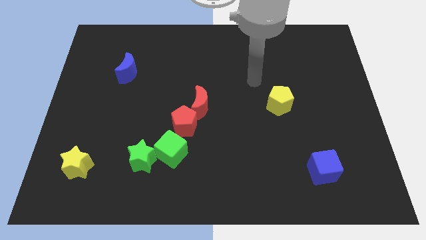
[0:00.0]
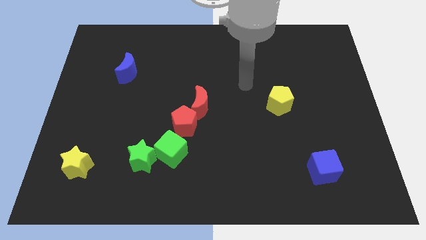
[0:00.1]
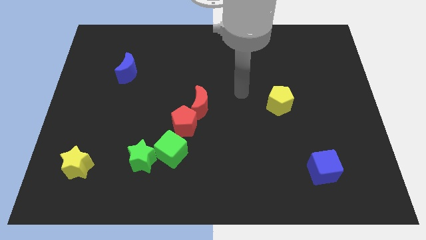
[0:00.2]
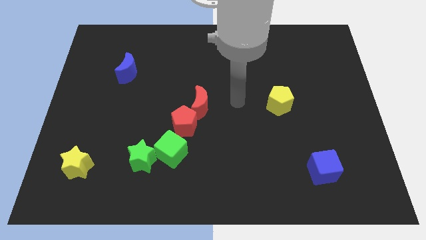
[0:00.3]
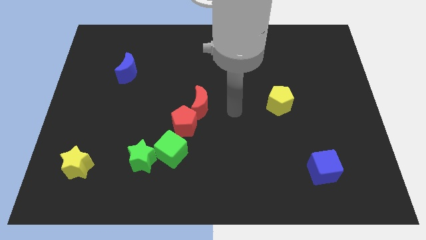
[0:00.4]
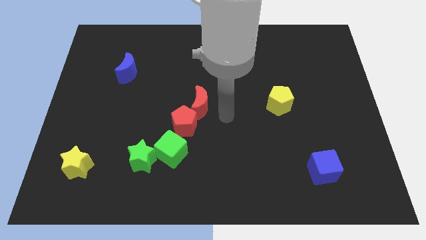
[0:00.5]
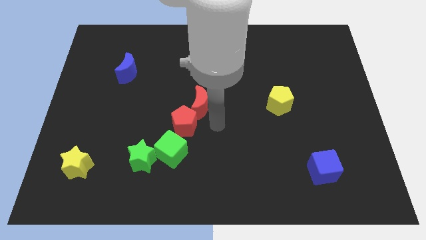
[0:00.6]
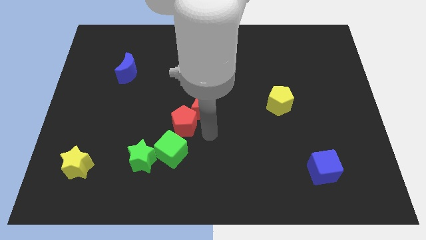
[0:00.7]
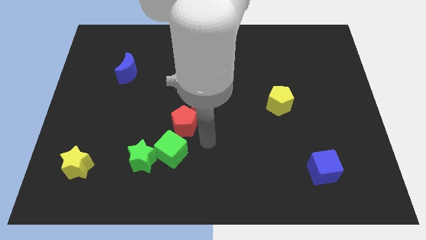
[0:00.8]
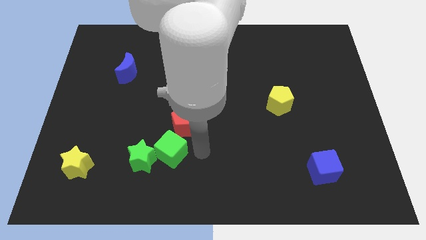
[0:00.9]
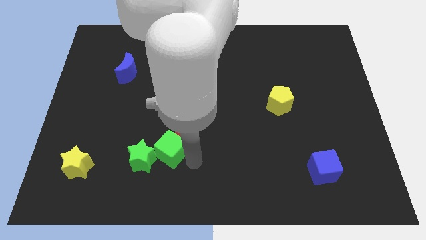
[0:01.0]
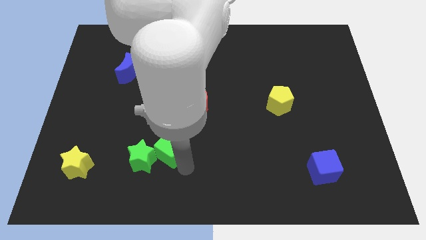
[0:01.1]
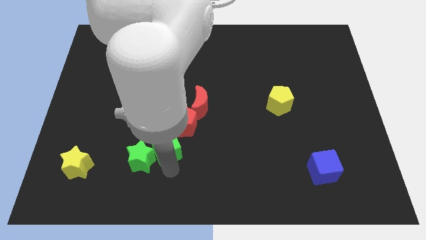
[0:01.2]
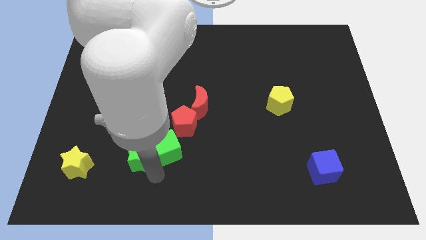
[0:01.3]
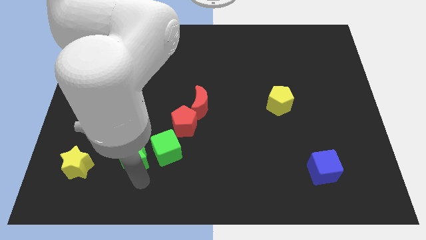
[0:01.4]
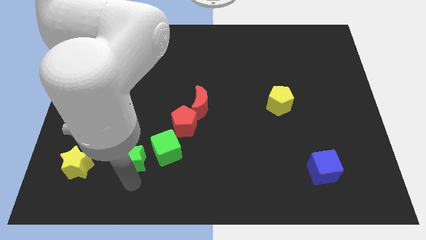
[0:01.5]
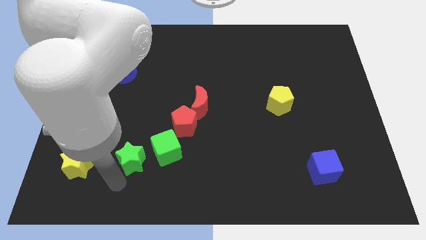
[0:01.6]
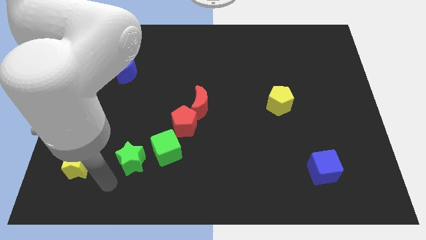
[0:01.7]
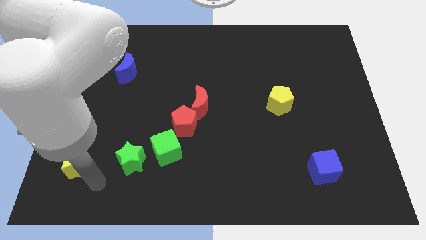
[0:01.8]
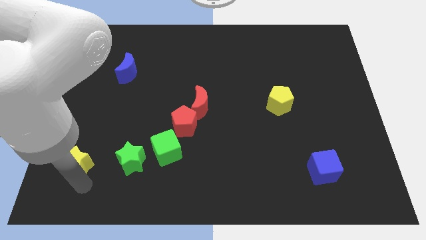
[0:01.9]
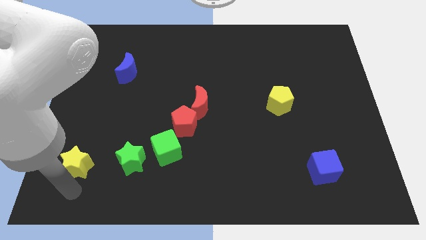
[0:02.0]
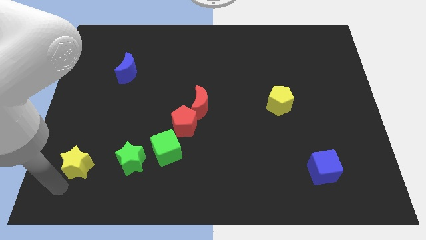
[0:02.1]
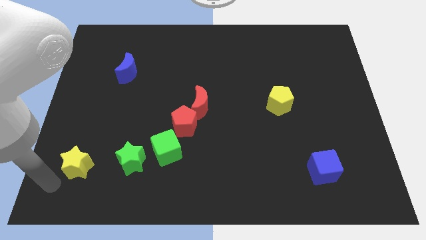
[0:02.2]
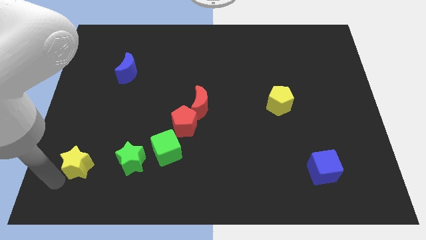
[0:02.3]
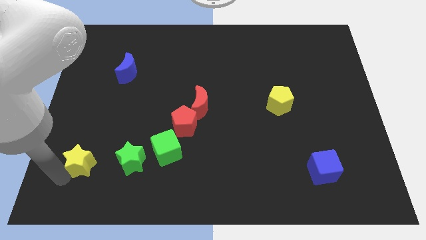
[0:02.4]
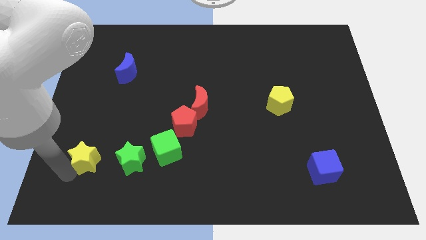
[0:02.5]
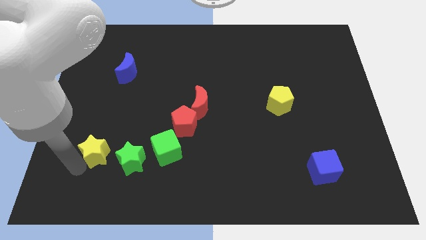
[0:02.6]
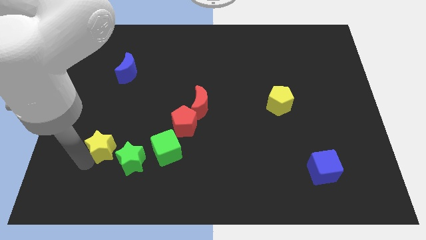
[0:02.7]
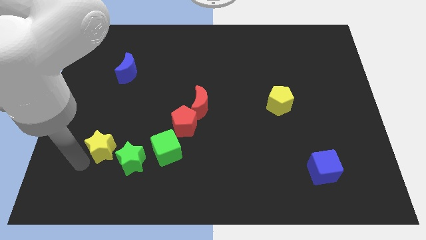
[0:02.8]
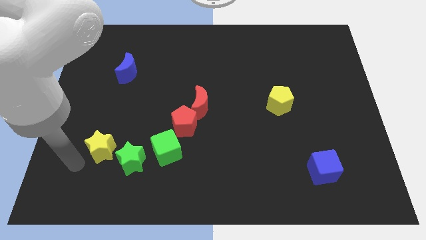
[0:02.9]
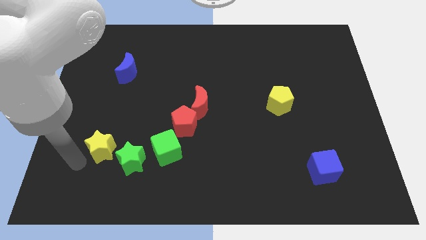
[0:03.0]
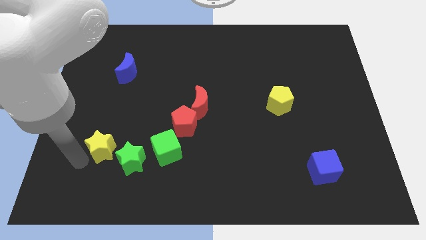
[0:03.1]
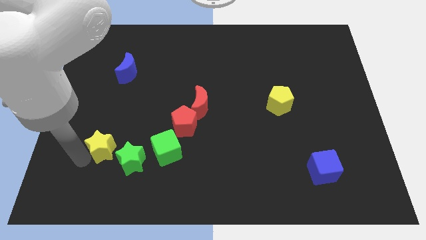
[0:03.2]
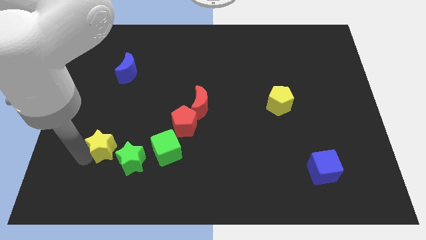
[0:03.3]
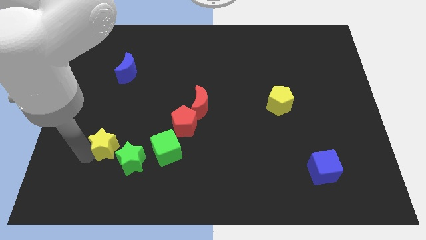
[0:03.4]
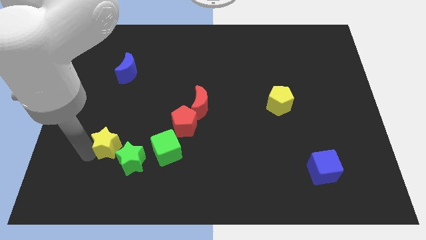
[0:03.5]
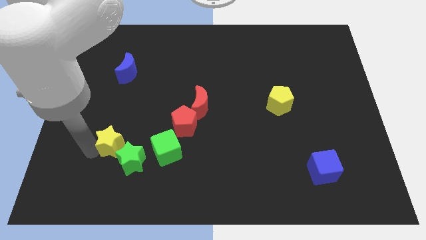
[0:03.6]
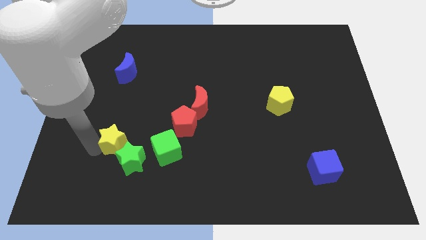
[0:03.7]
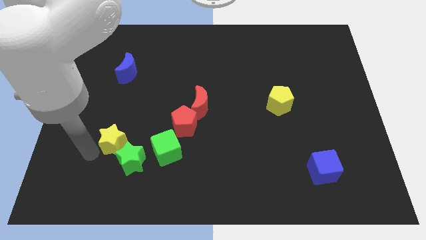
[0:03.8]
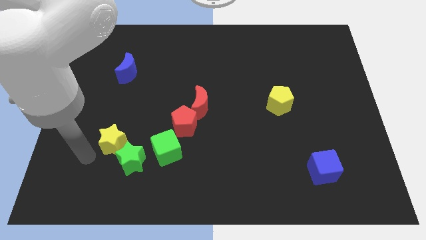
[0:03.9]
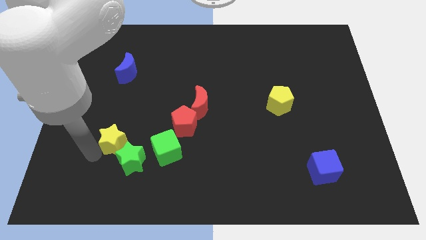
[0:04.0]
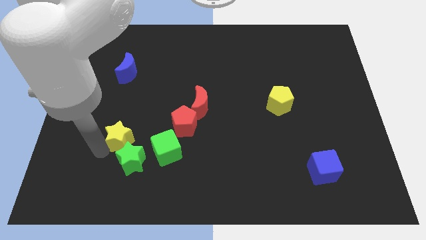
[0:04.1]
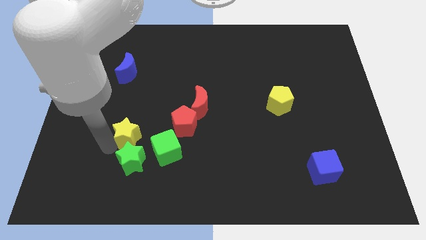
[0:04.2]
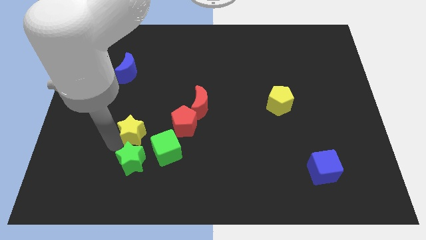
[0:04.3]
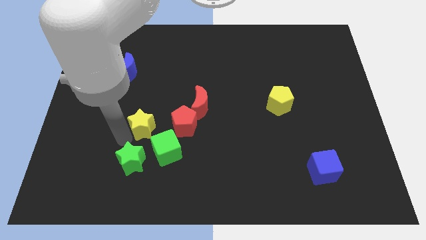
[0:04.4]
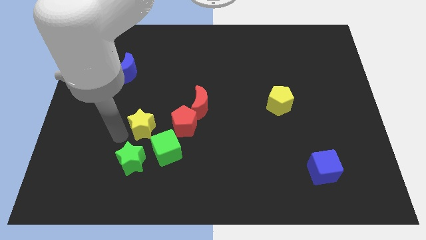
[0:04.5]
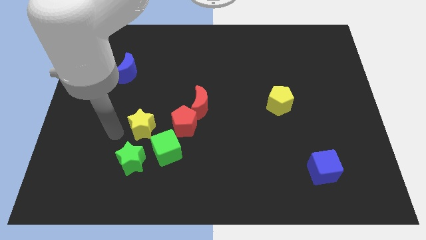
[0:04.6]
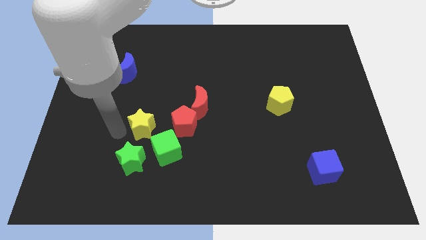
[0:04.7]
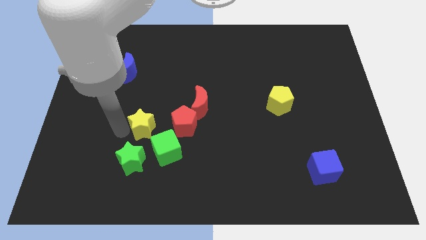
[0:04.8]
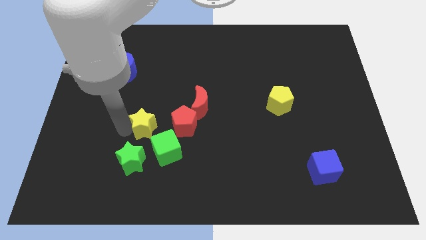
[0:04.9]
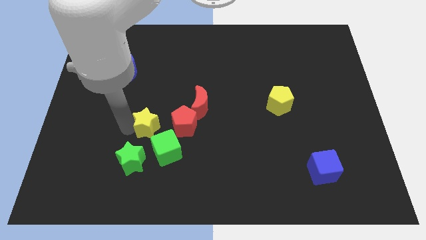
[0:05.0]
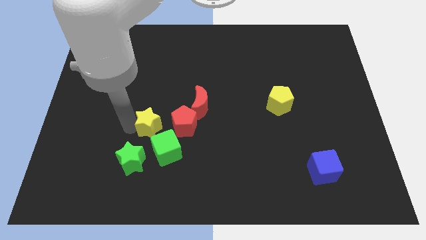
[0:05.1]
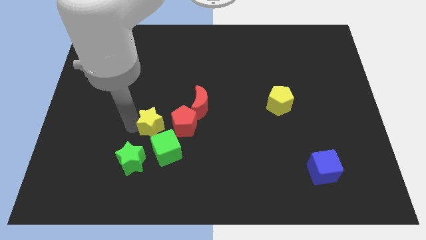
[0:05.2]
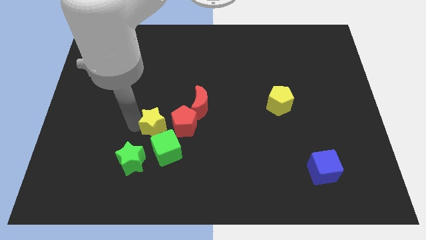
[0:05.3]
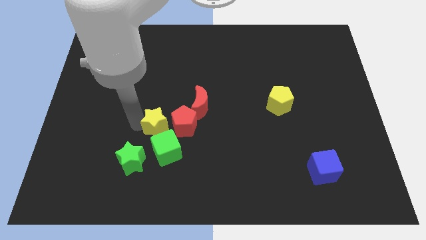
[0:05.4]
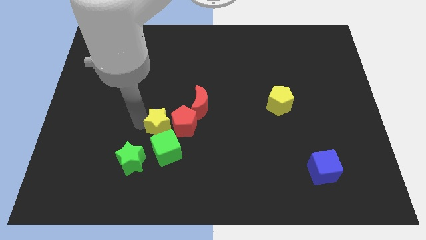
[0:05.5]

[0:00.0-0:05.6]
push the yellow star to the red pentagon

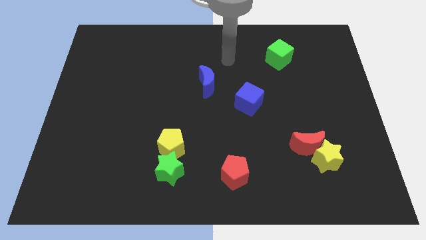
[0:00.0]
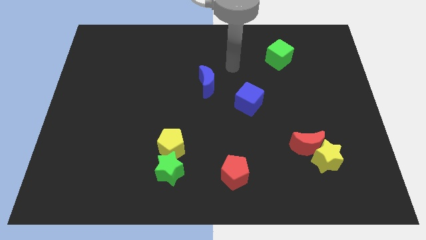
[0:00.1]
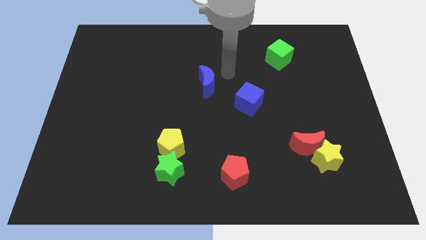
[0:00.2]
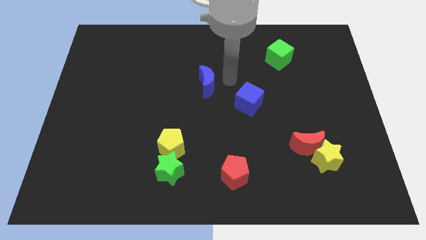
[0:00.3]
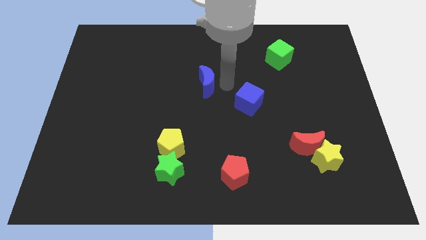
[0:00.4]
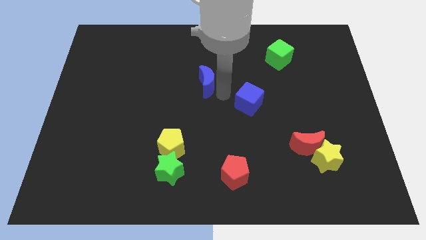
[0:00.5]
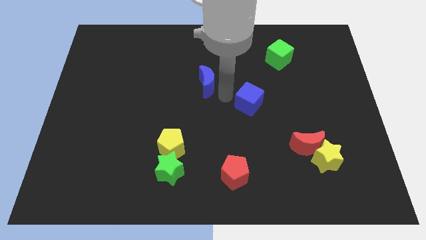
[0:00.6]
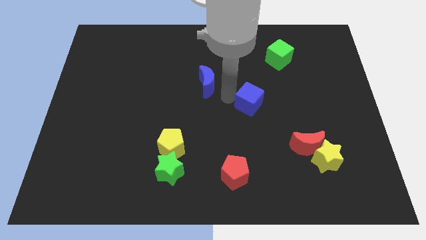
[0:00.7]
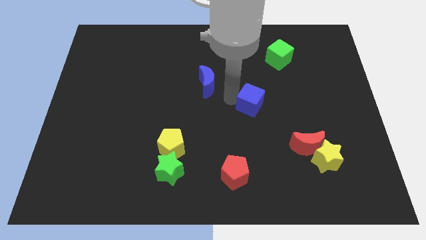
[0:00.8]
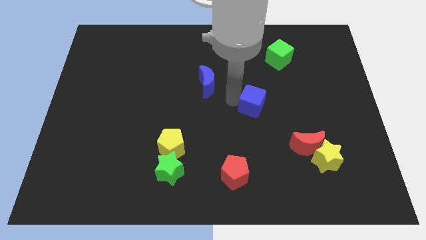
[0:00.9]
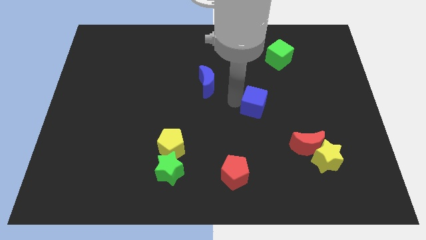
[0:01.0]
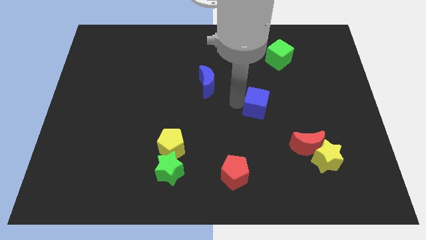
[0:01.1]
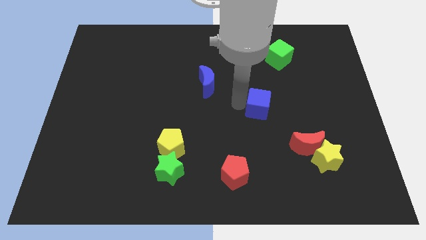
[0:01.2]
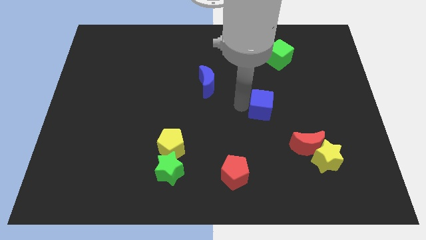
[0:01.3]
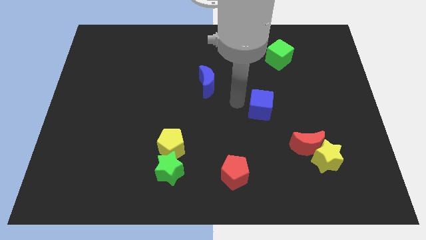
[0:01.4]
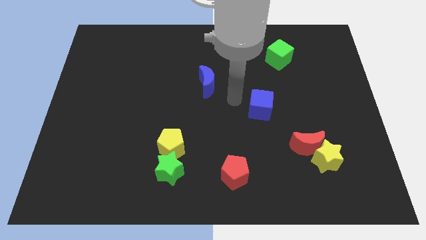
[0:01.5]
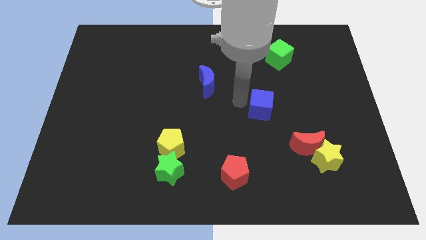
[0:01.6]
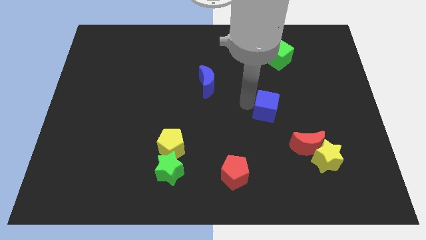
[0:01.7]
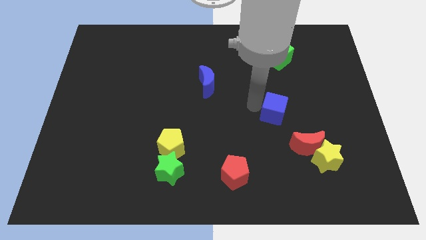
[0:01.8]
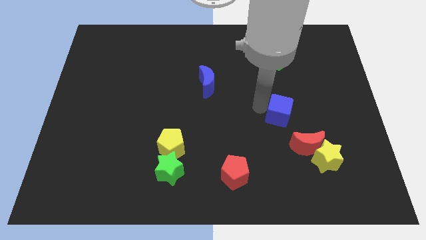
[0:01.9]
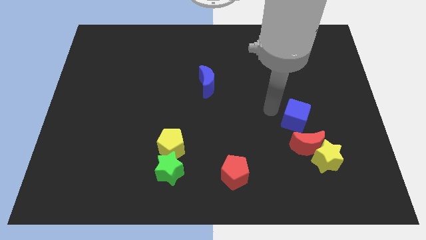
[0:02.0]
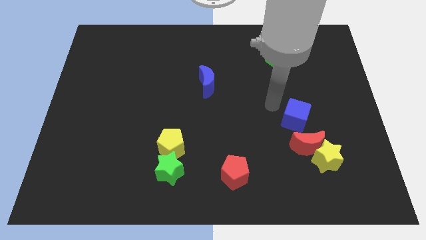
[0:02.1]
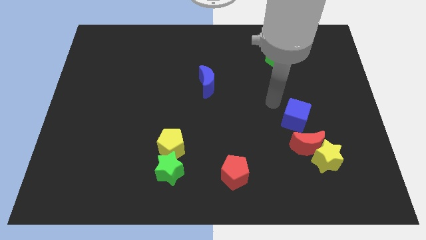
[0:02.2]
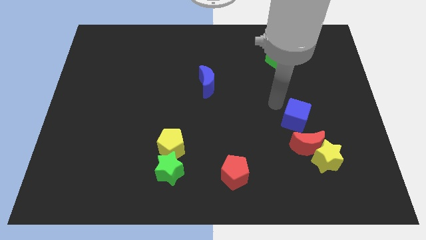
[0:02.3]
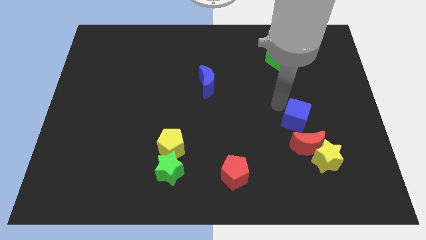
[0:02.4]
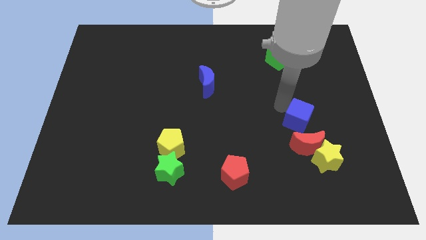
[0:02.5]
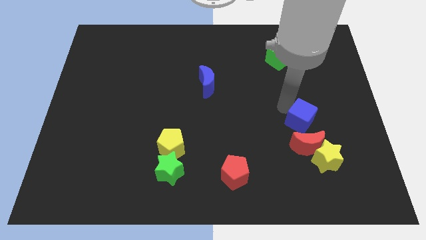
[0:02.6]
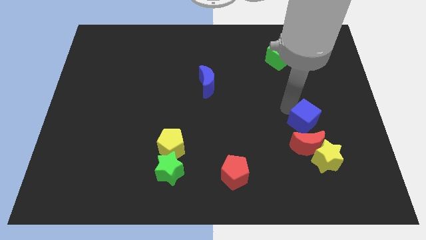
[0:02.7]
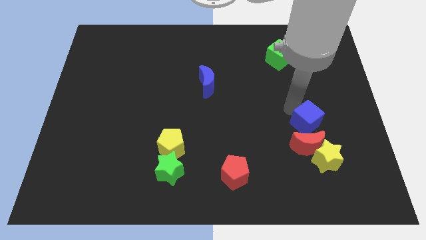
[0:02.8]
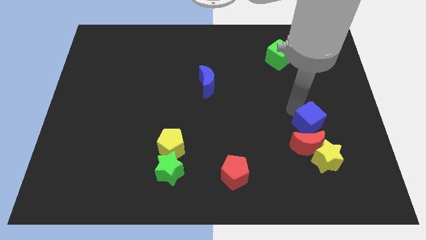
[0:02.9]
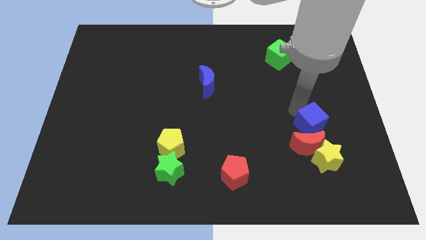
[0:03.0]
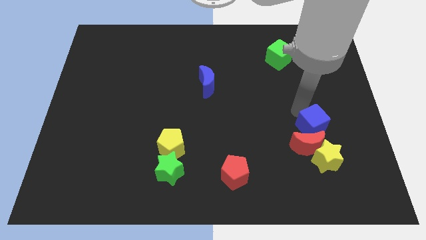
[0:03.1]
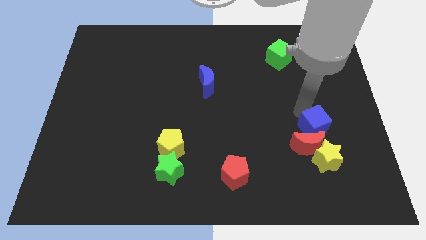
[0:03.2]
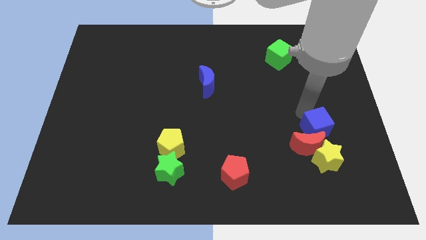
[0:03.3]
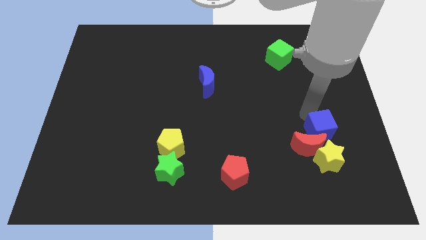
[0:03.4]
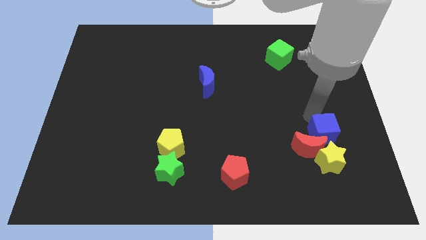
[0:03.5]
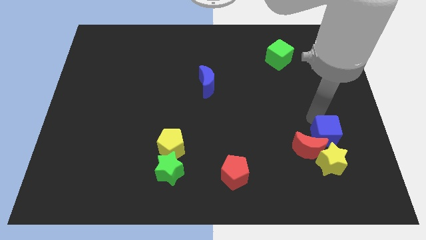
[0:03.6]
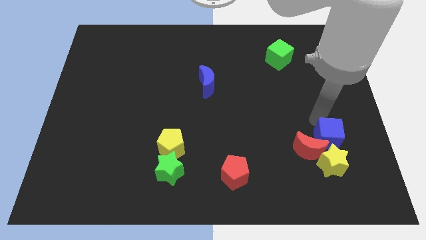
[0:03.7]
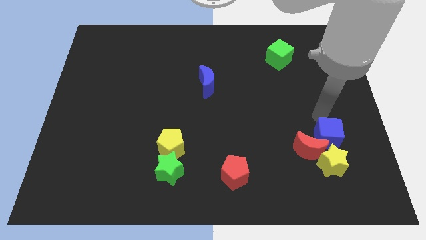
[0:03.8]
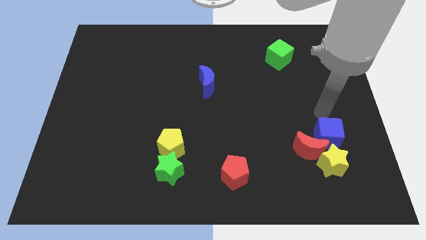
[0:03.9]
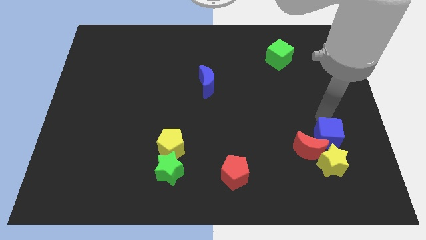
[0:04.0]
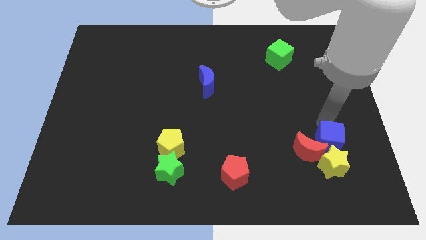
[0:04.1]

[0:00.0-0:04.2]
push the blue cube close to the yellow star
